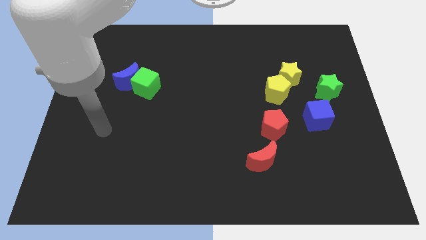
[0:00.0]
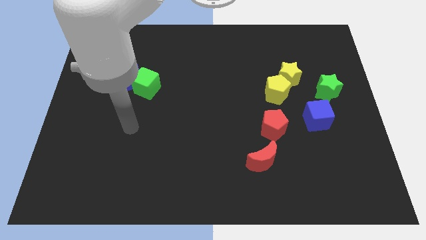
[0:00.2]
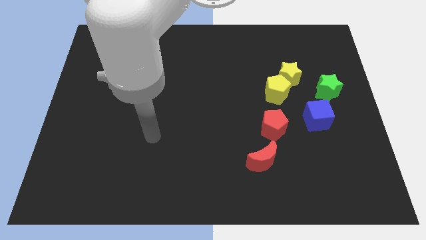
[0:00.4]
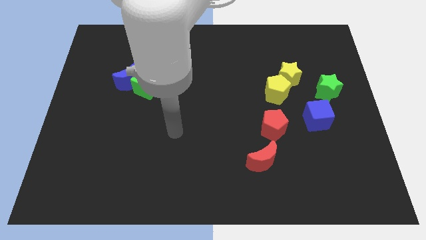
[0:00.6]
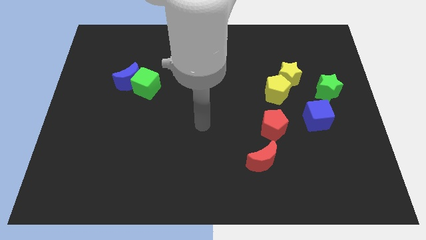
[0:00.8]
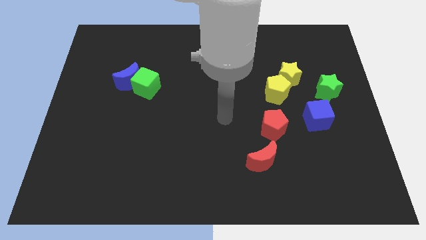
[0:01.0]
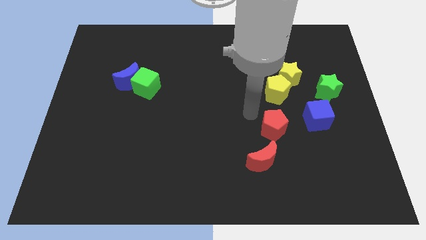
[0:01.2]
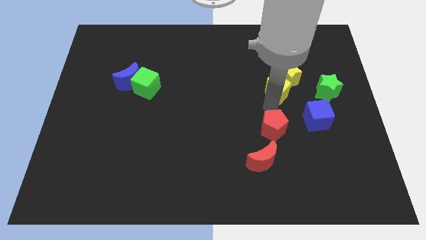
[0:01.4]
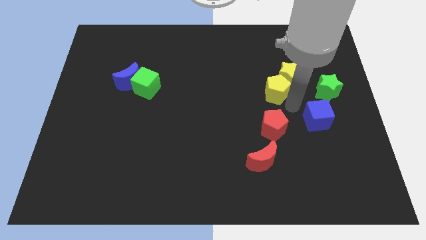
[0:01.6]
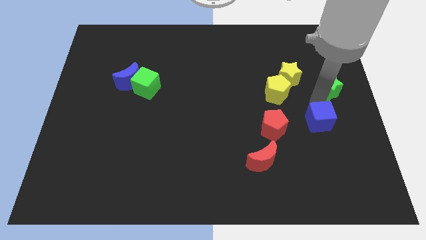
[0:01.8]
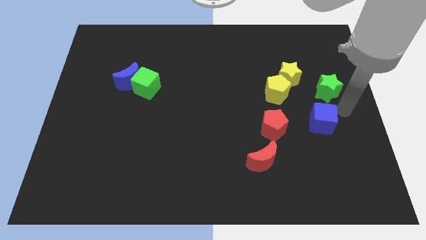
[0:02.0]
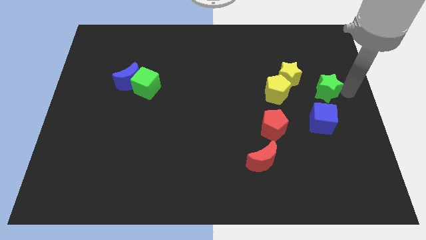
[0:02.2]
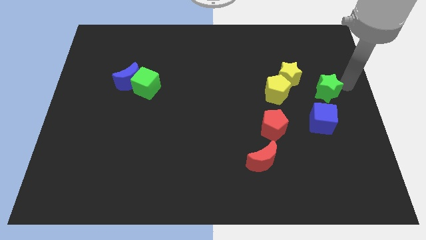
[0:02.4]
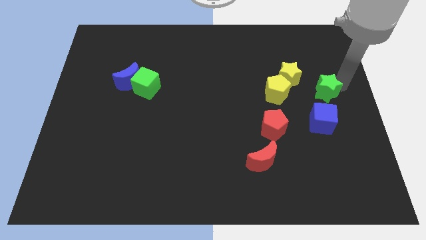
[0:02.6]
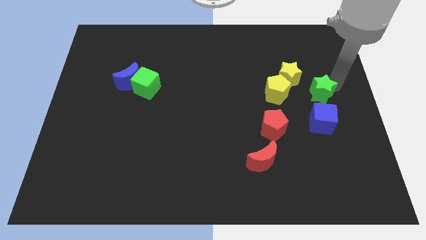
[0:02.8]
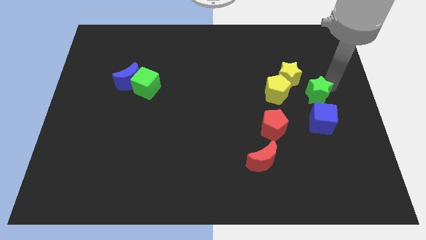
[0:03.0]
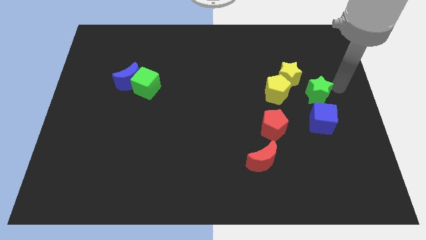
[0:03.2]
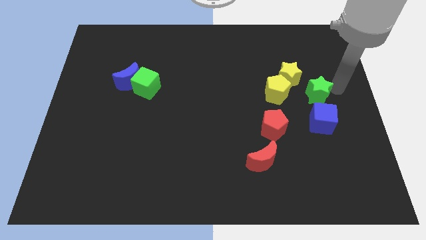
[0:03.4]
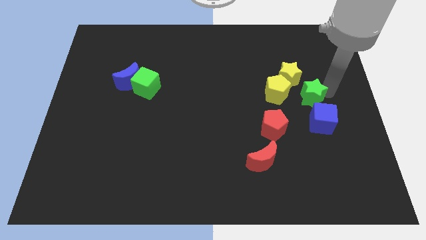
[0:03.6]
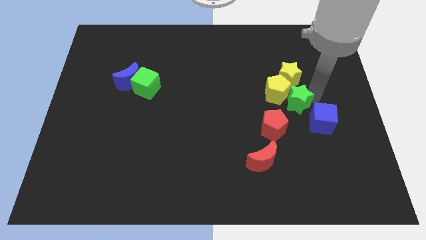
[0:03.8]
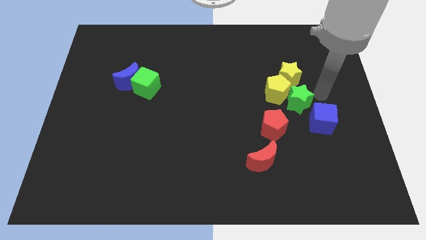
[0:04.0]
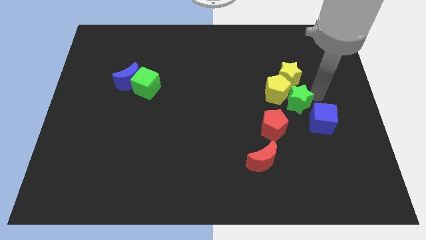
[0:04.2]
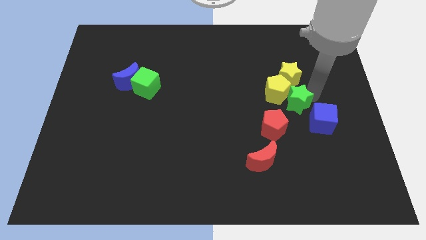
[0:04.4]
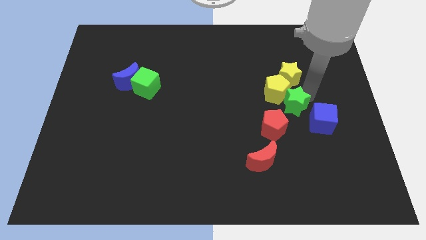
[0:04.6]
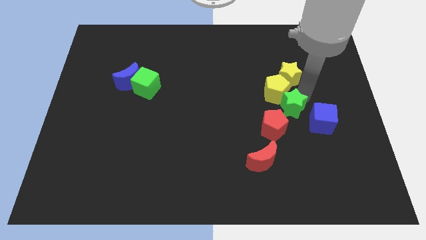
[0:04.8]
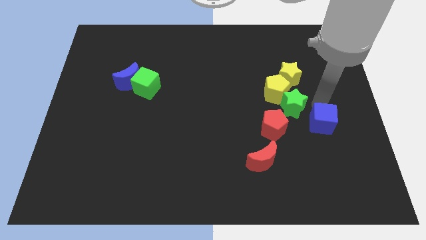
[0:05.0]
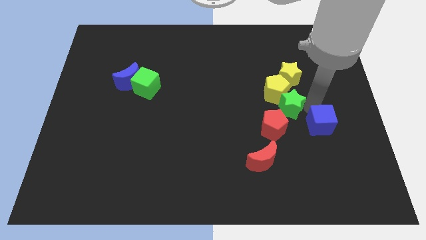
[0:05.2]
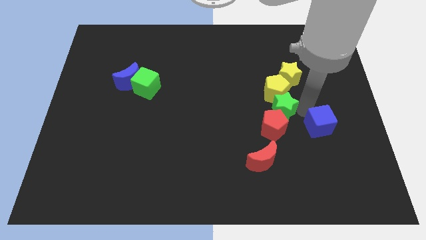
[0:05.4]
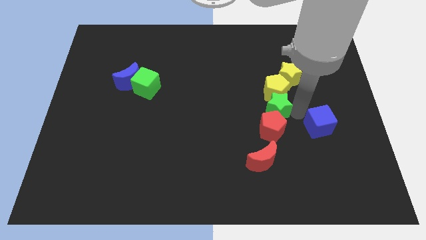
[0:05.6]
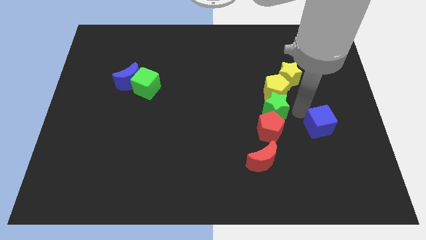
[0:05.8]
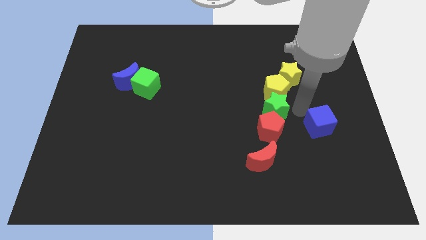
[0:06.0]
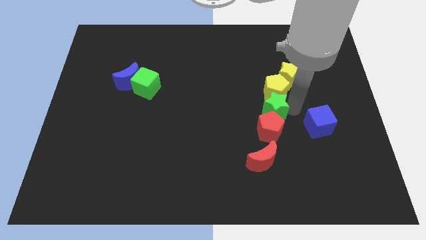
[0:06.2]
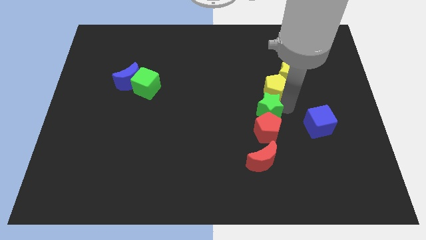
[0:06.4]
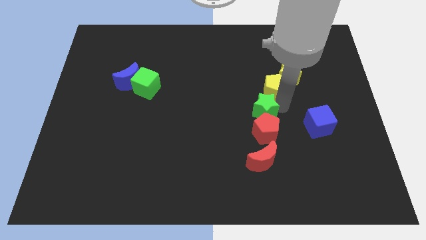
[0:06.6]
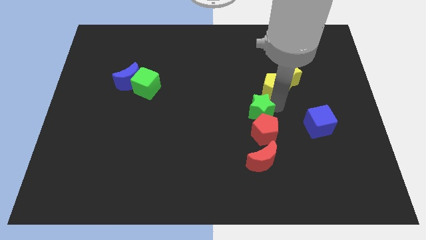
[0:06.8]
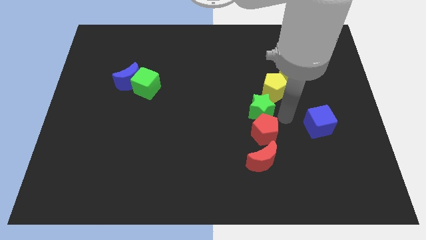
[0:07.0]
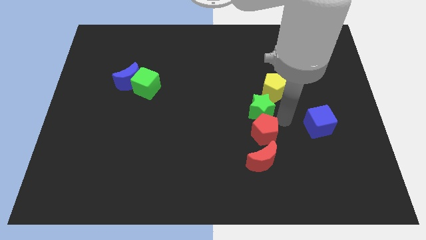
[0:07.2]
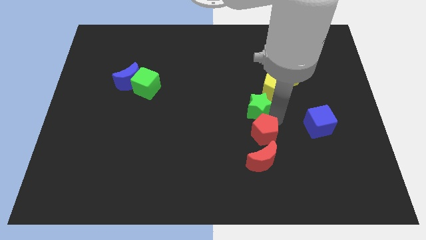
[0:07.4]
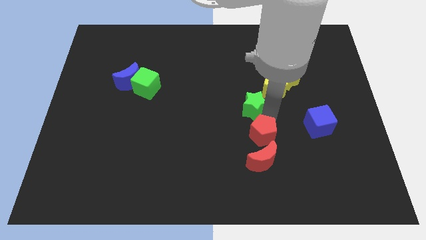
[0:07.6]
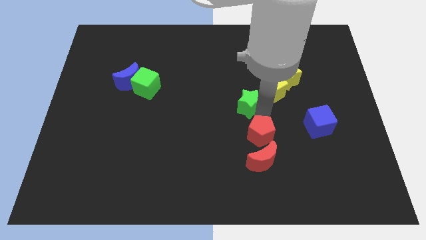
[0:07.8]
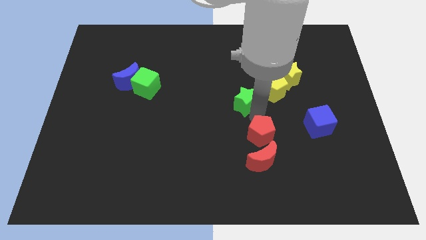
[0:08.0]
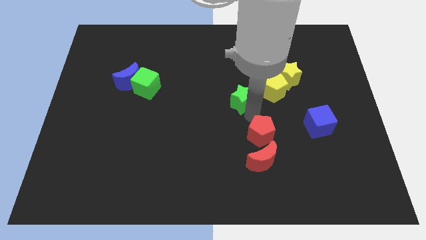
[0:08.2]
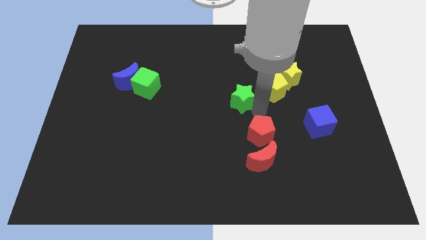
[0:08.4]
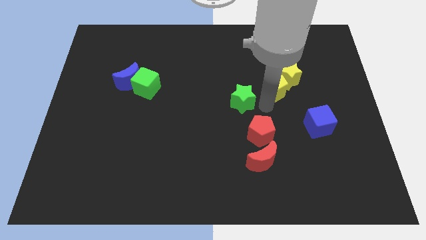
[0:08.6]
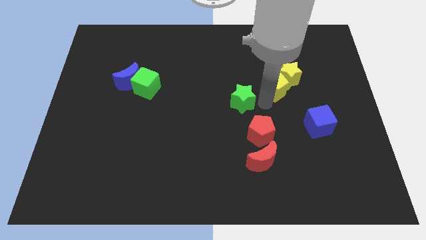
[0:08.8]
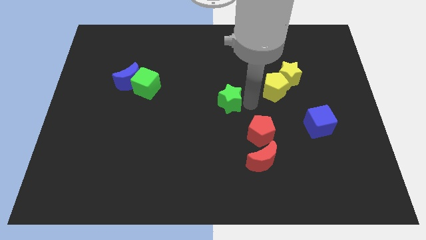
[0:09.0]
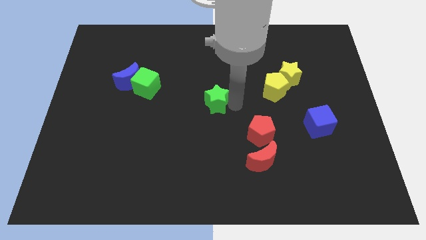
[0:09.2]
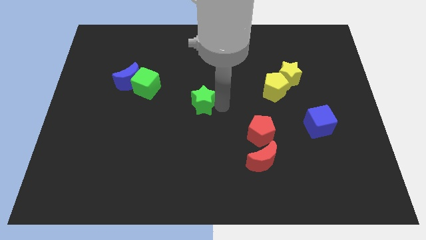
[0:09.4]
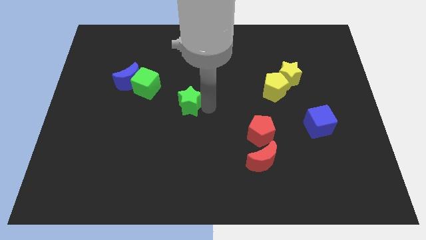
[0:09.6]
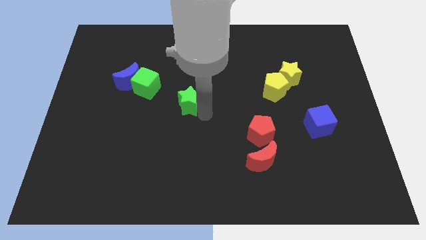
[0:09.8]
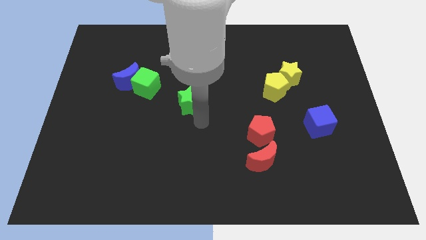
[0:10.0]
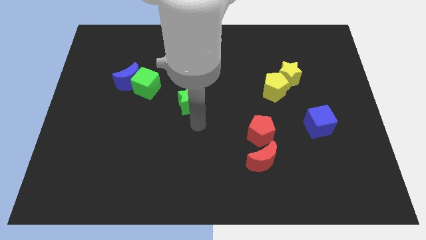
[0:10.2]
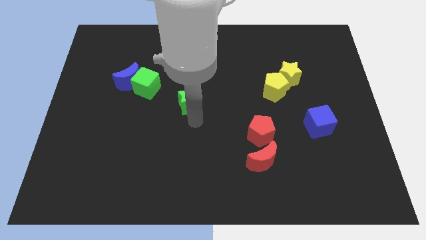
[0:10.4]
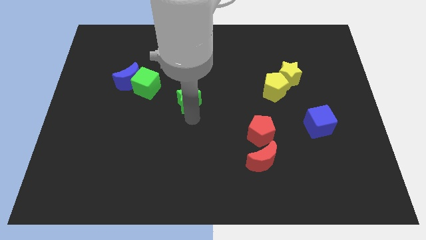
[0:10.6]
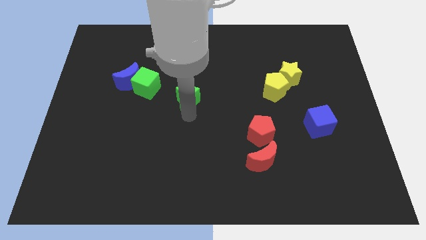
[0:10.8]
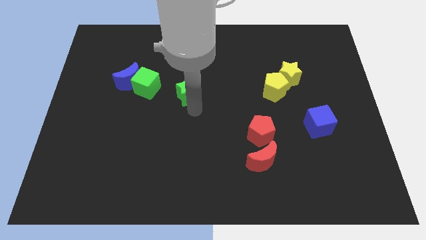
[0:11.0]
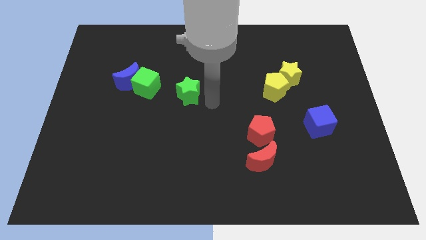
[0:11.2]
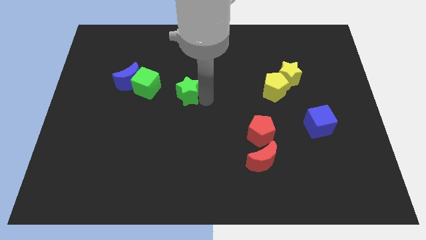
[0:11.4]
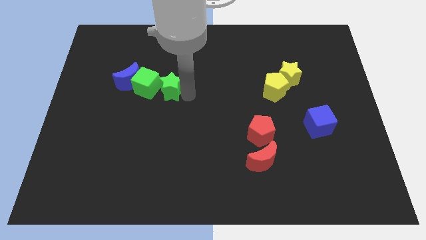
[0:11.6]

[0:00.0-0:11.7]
move the green star next to the green cube
